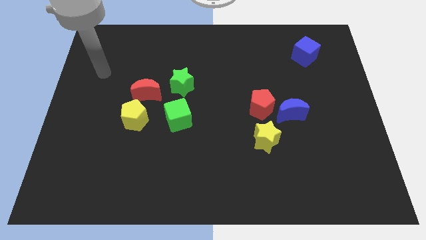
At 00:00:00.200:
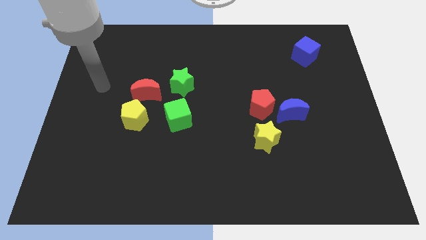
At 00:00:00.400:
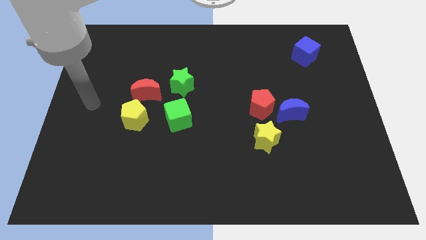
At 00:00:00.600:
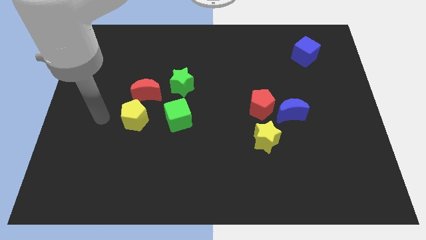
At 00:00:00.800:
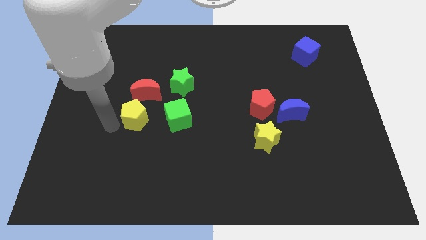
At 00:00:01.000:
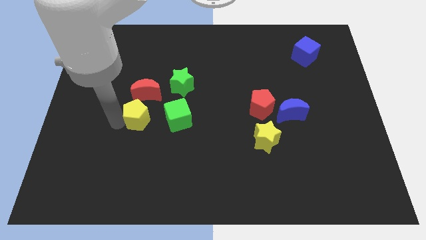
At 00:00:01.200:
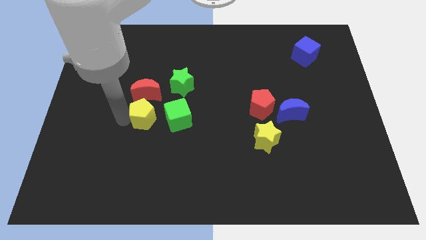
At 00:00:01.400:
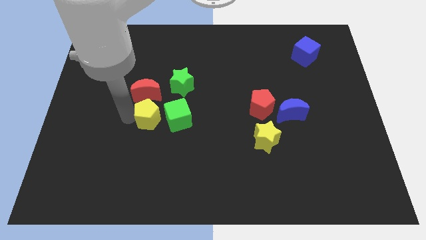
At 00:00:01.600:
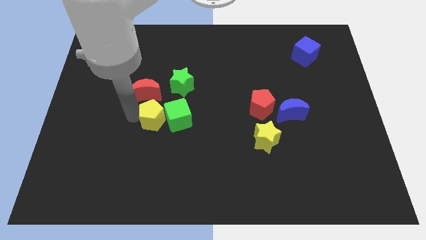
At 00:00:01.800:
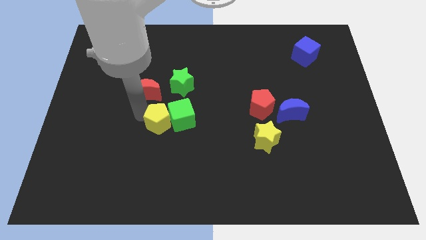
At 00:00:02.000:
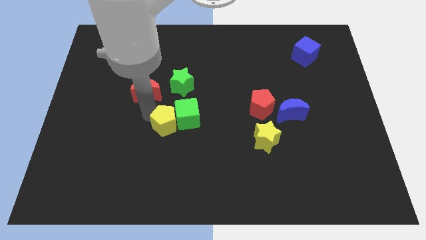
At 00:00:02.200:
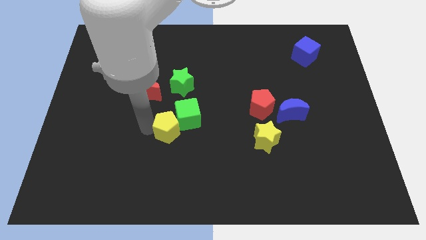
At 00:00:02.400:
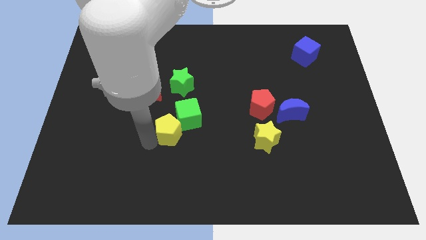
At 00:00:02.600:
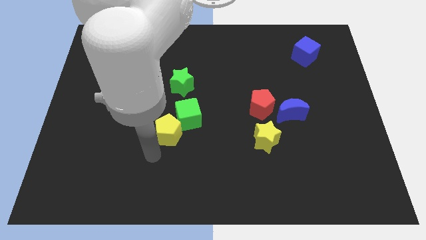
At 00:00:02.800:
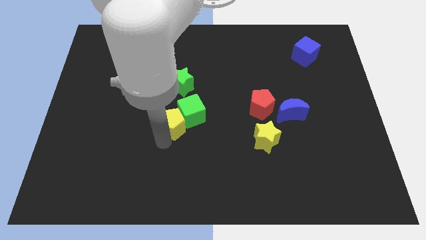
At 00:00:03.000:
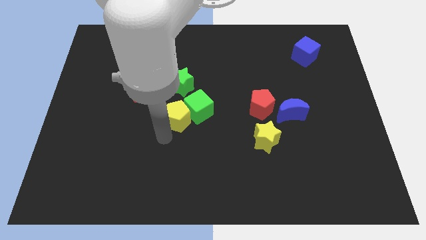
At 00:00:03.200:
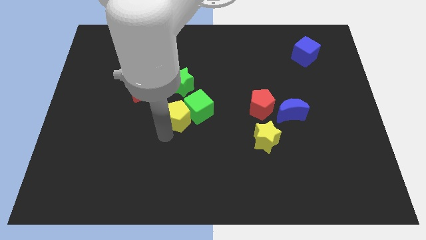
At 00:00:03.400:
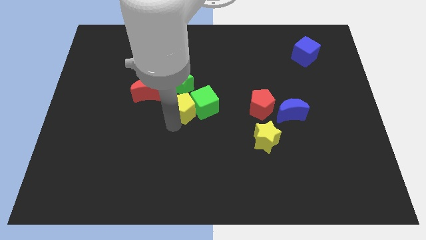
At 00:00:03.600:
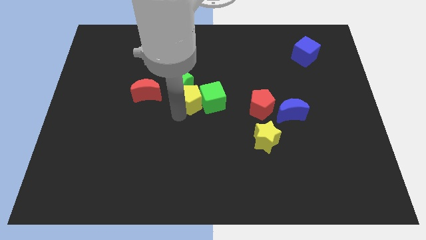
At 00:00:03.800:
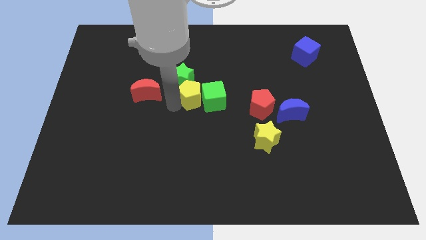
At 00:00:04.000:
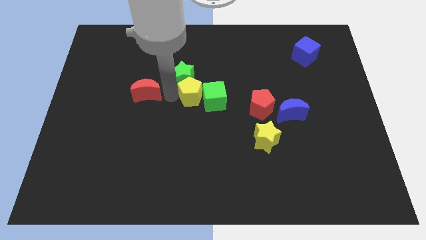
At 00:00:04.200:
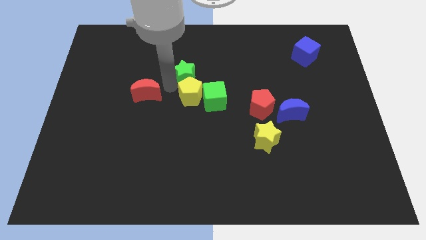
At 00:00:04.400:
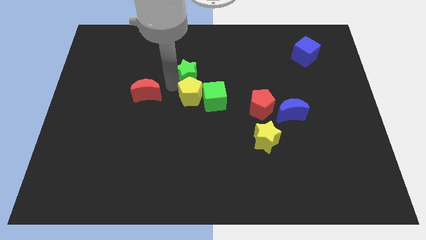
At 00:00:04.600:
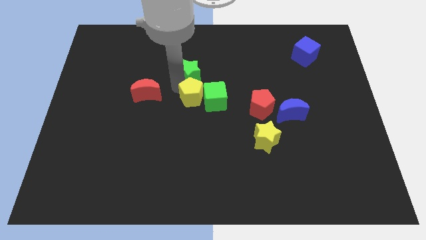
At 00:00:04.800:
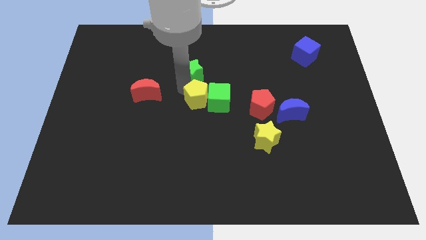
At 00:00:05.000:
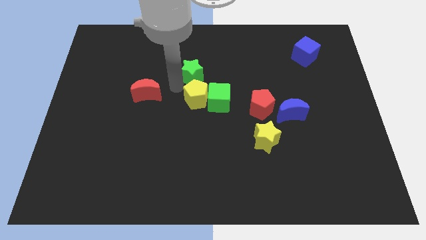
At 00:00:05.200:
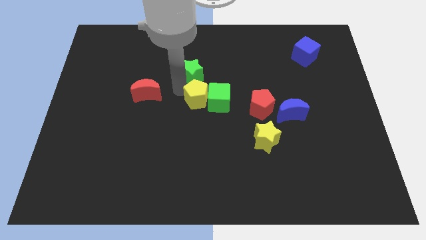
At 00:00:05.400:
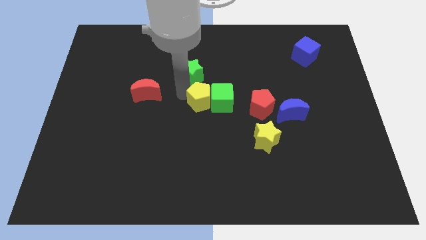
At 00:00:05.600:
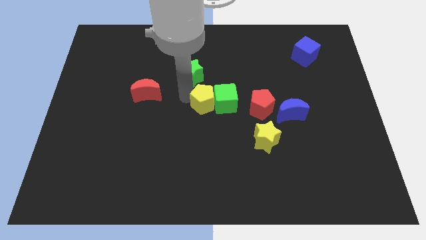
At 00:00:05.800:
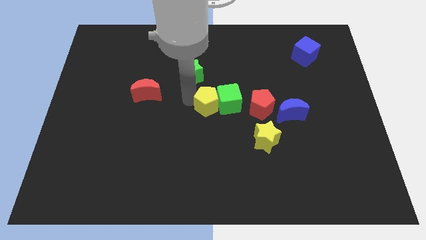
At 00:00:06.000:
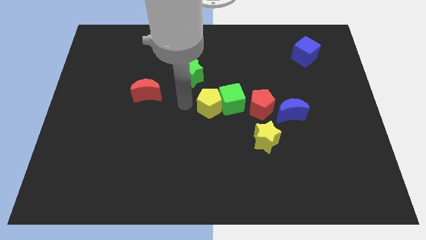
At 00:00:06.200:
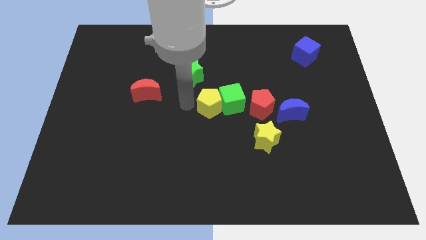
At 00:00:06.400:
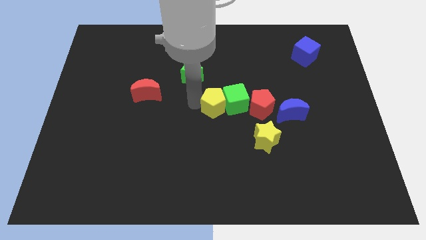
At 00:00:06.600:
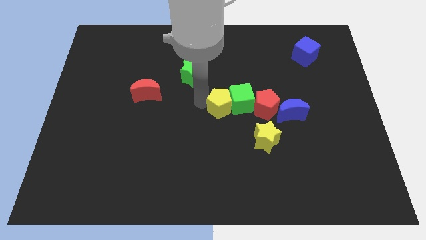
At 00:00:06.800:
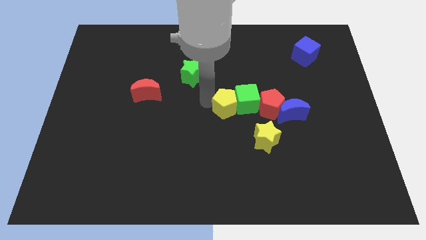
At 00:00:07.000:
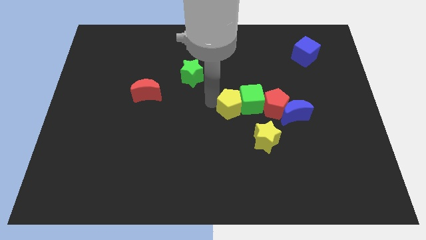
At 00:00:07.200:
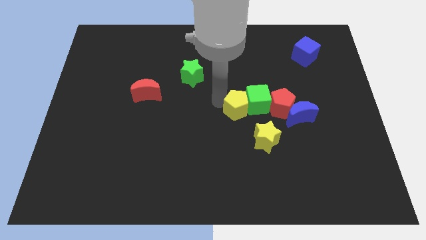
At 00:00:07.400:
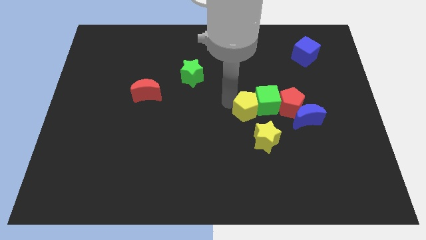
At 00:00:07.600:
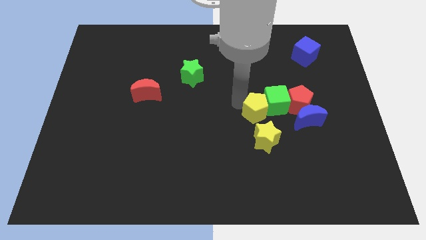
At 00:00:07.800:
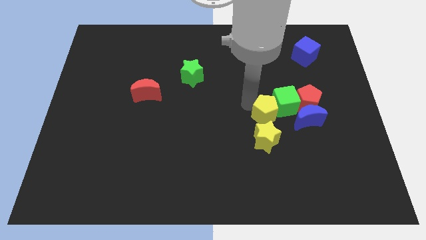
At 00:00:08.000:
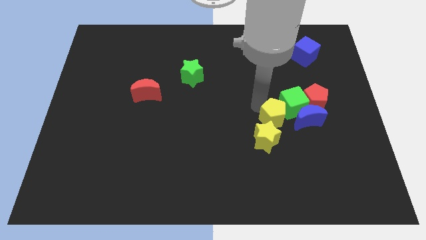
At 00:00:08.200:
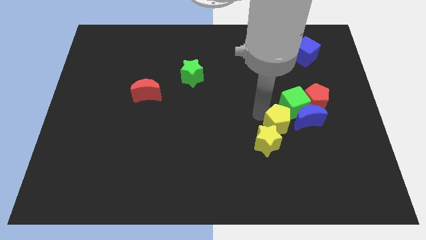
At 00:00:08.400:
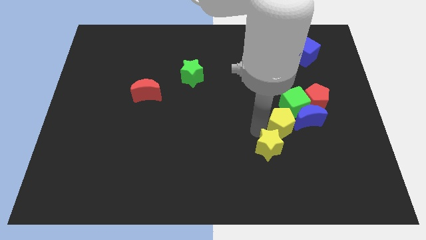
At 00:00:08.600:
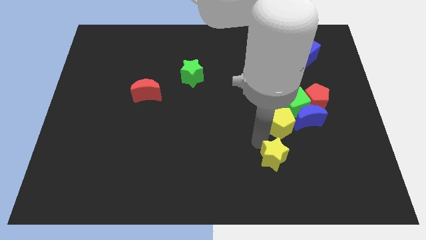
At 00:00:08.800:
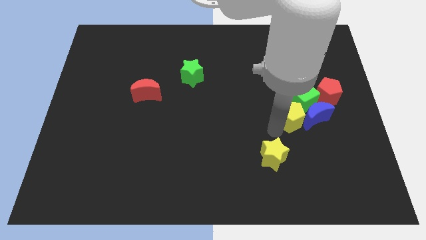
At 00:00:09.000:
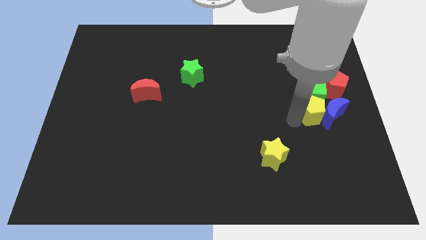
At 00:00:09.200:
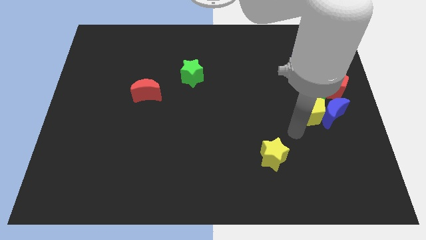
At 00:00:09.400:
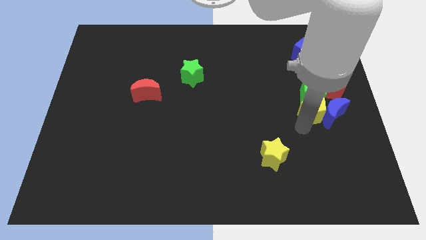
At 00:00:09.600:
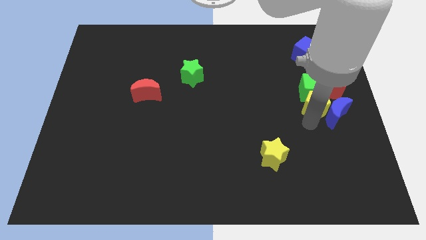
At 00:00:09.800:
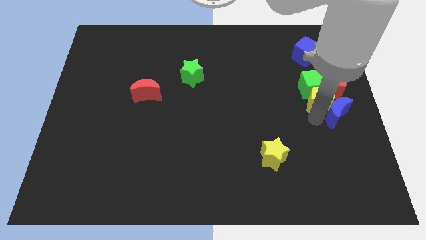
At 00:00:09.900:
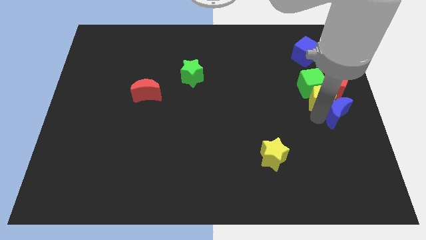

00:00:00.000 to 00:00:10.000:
move the yellow pentagon to the red pentagon

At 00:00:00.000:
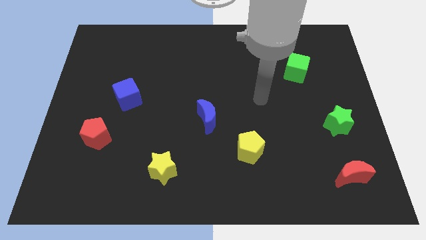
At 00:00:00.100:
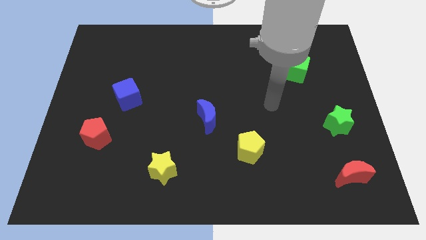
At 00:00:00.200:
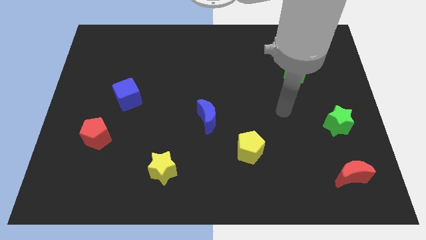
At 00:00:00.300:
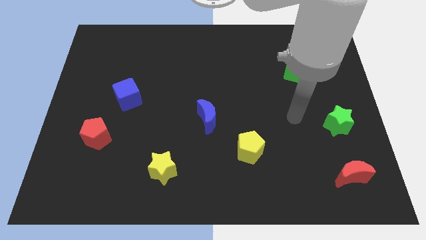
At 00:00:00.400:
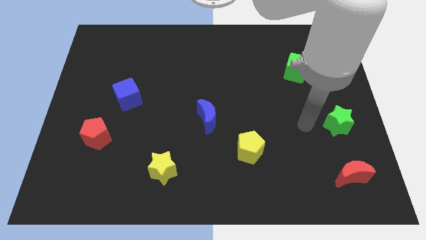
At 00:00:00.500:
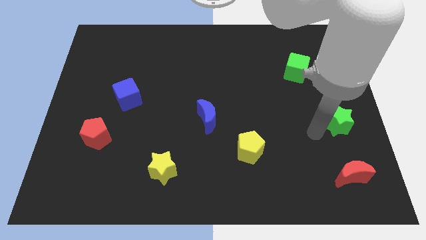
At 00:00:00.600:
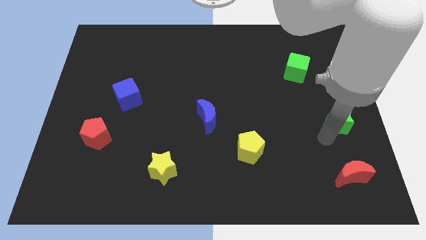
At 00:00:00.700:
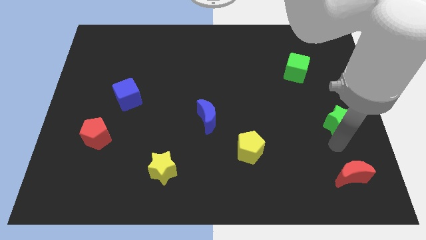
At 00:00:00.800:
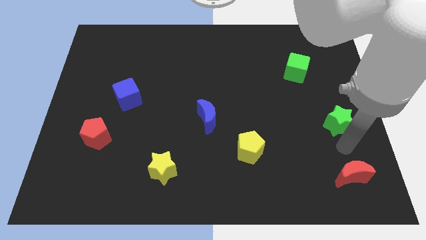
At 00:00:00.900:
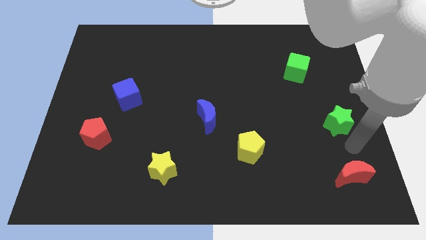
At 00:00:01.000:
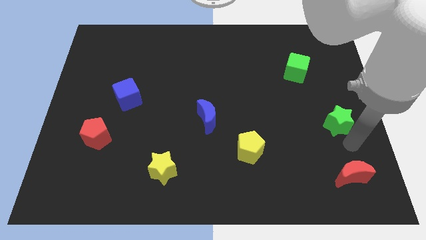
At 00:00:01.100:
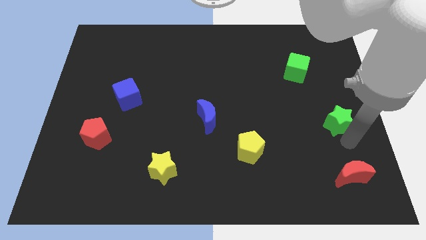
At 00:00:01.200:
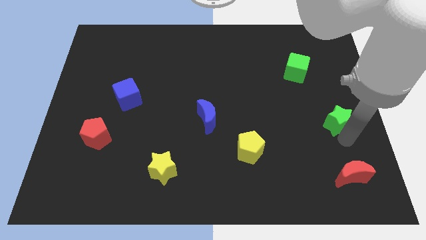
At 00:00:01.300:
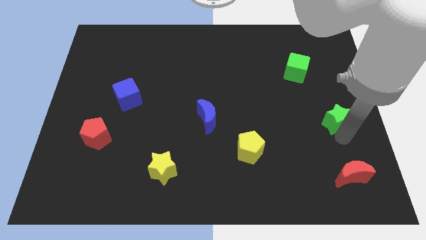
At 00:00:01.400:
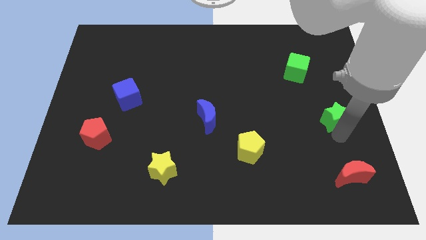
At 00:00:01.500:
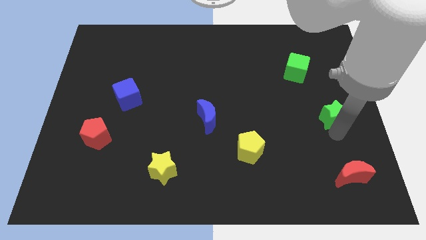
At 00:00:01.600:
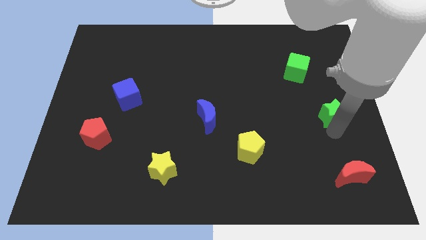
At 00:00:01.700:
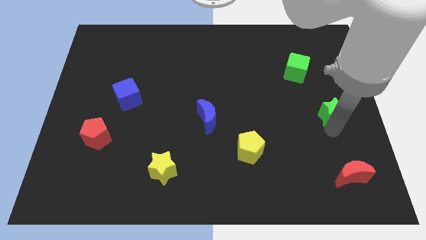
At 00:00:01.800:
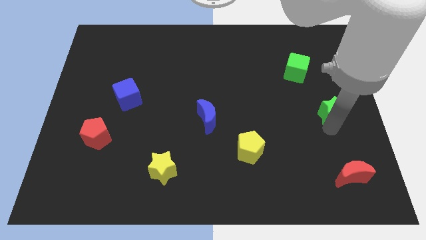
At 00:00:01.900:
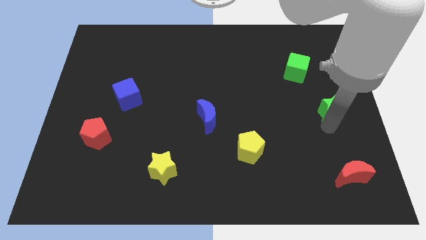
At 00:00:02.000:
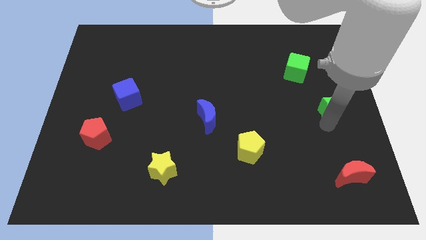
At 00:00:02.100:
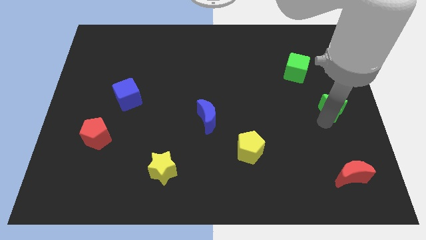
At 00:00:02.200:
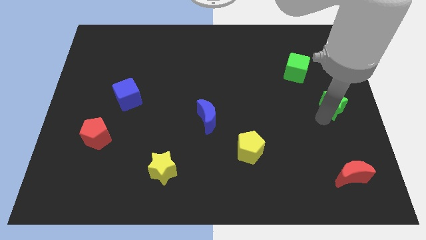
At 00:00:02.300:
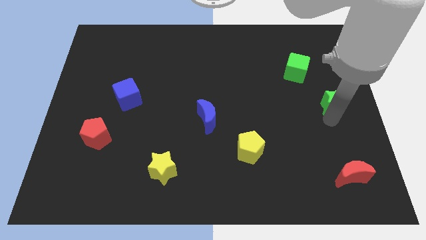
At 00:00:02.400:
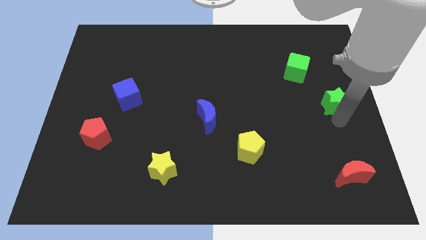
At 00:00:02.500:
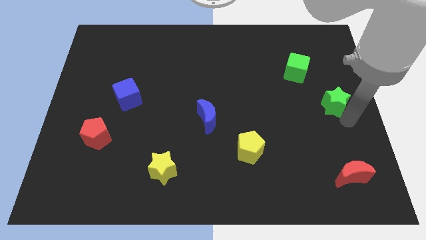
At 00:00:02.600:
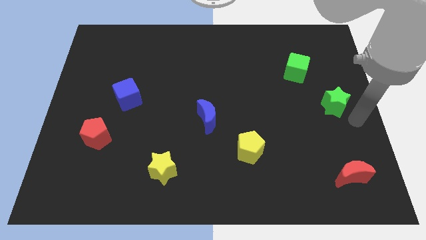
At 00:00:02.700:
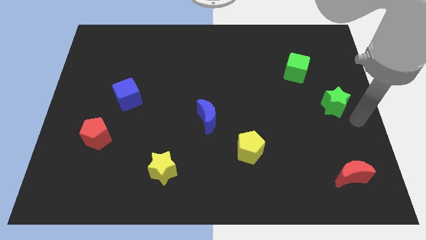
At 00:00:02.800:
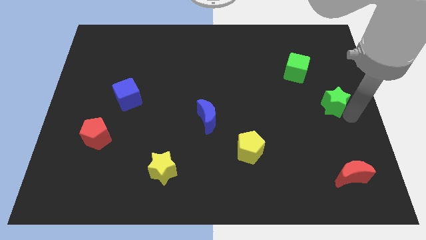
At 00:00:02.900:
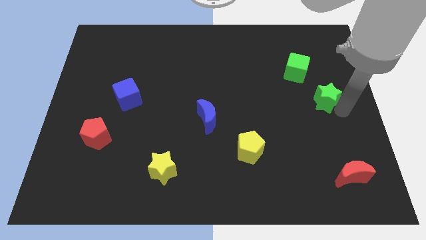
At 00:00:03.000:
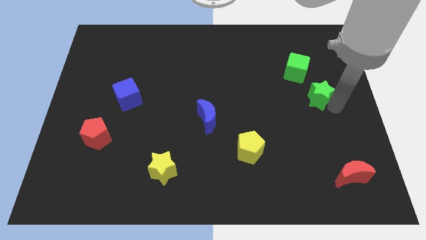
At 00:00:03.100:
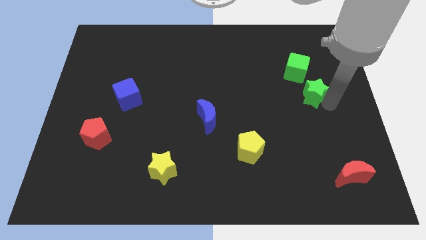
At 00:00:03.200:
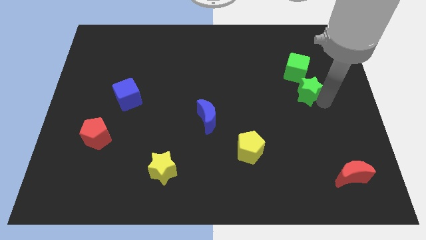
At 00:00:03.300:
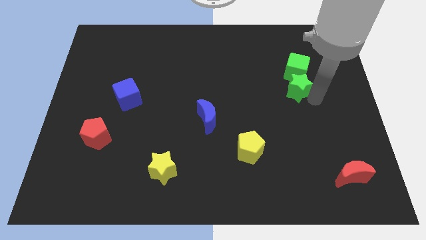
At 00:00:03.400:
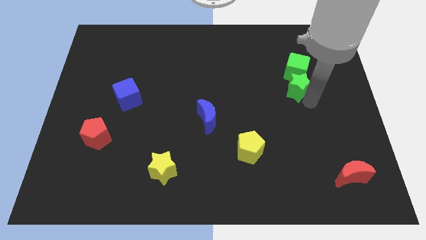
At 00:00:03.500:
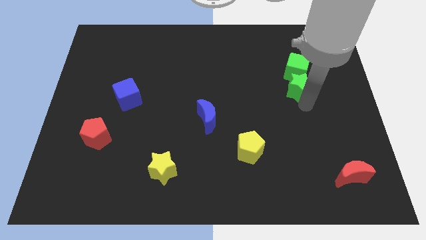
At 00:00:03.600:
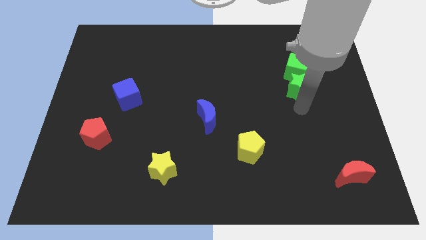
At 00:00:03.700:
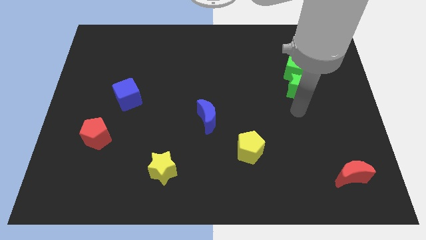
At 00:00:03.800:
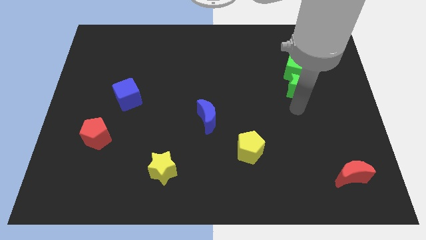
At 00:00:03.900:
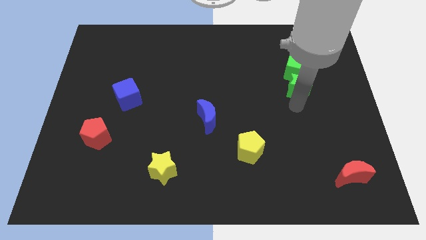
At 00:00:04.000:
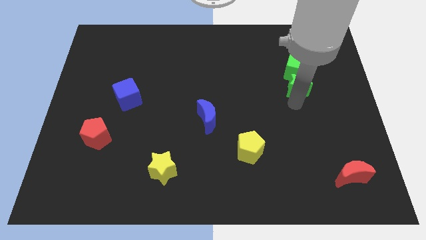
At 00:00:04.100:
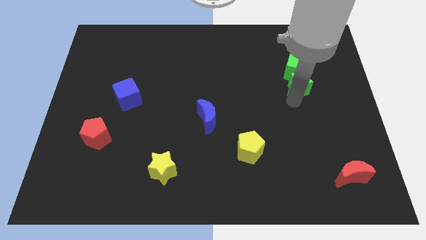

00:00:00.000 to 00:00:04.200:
put the green star close to the green cube
